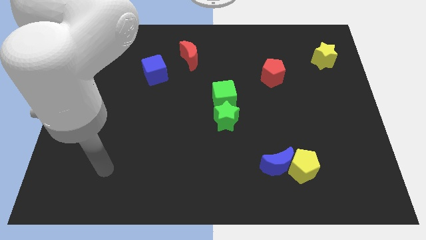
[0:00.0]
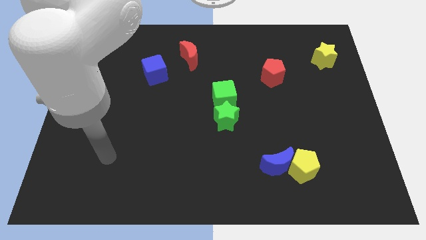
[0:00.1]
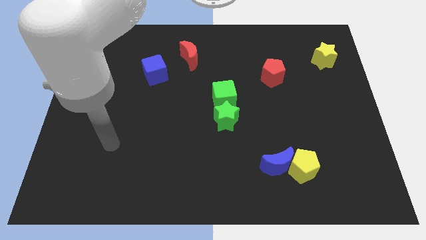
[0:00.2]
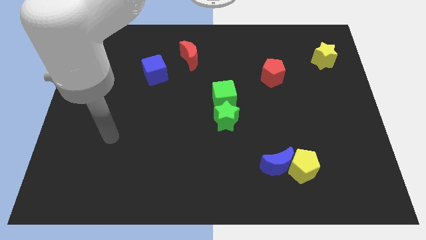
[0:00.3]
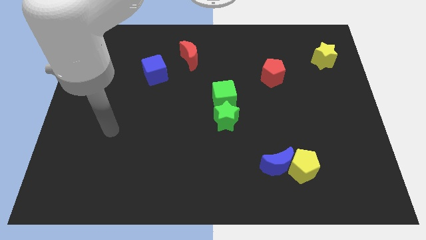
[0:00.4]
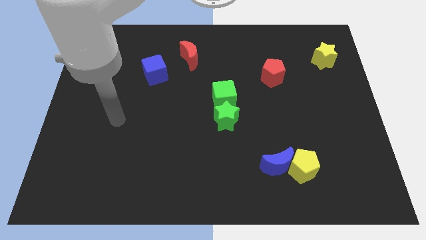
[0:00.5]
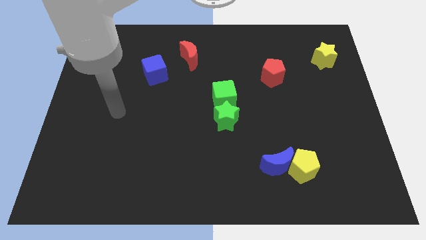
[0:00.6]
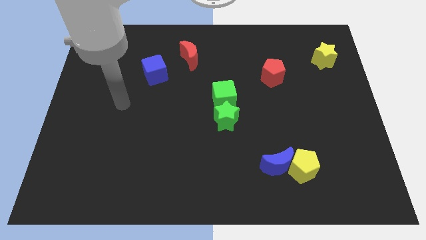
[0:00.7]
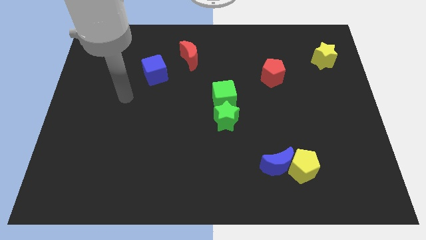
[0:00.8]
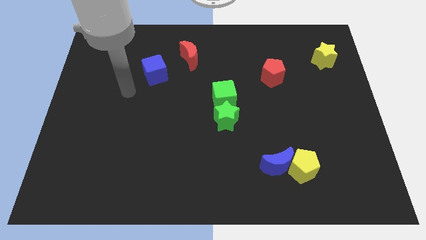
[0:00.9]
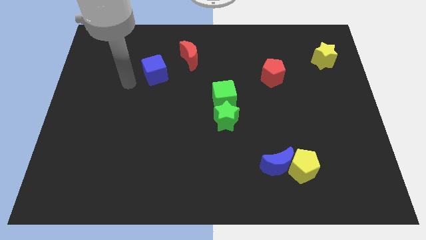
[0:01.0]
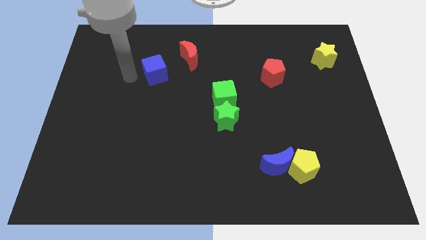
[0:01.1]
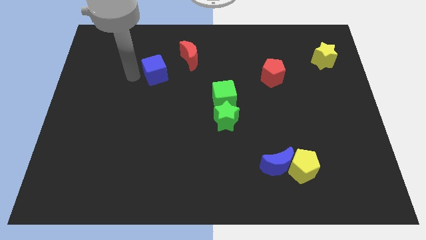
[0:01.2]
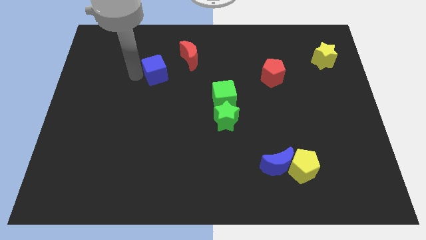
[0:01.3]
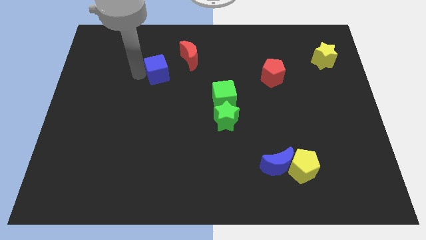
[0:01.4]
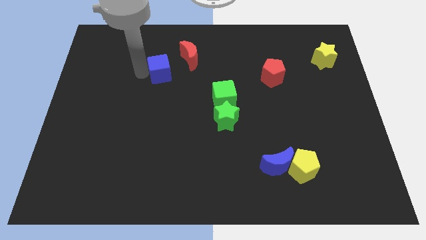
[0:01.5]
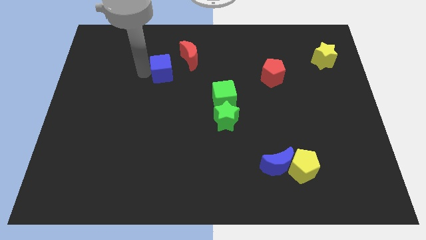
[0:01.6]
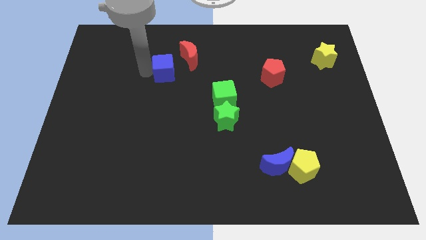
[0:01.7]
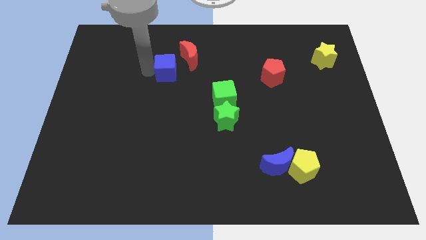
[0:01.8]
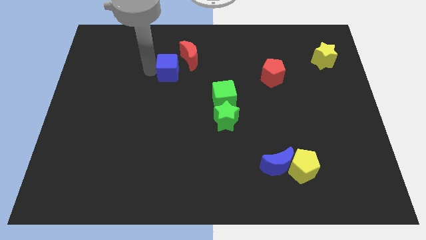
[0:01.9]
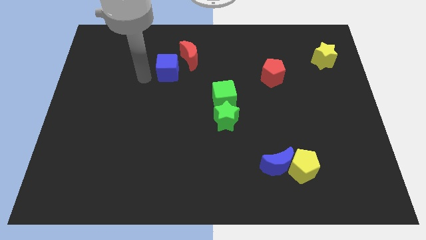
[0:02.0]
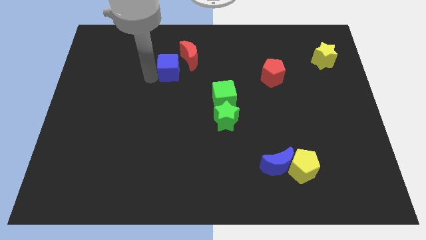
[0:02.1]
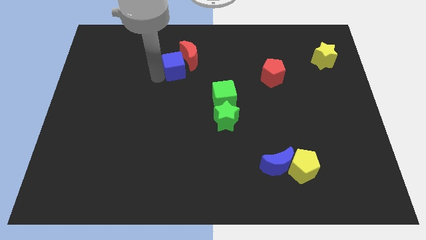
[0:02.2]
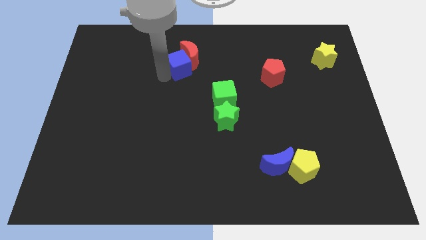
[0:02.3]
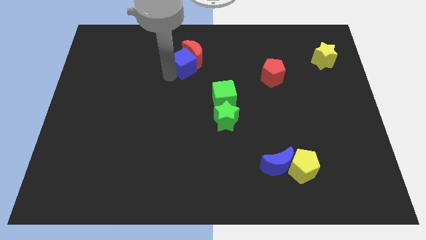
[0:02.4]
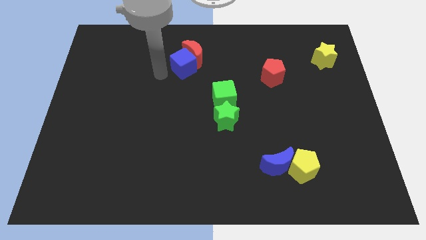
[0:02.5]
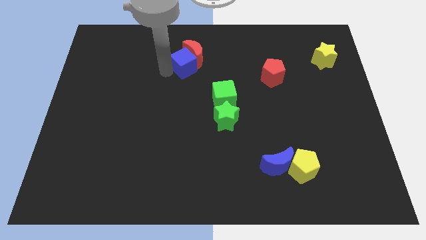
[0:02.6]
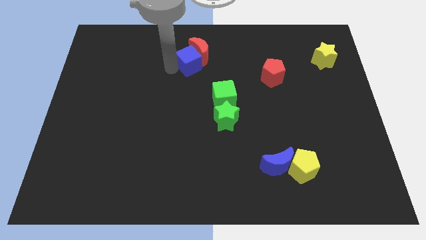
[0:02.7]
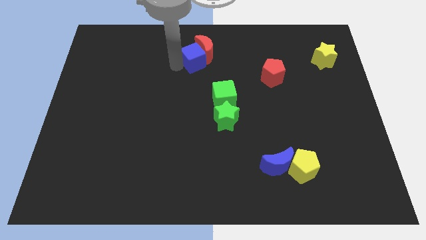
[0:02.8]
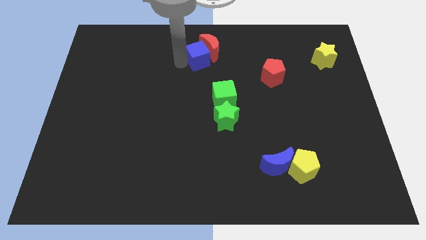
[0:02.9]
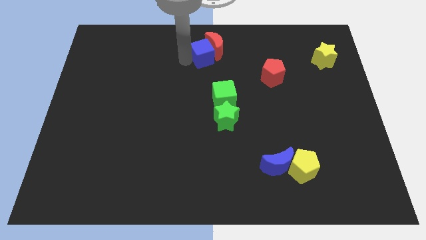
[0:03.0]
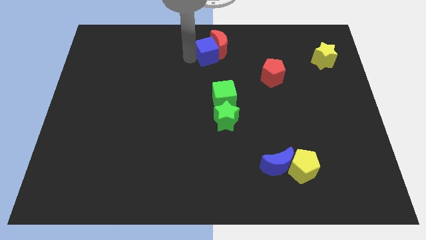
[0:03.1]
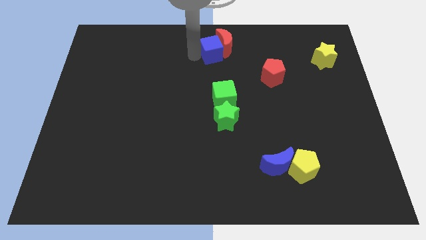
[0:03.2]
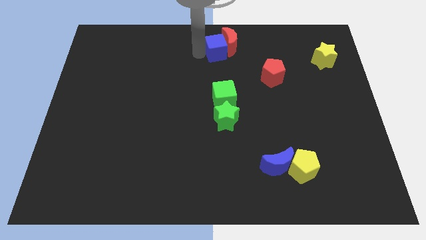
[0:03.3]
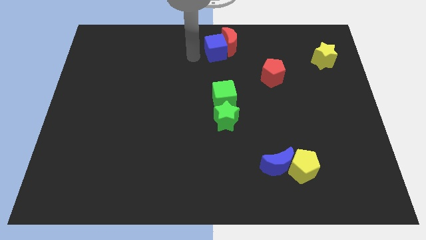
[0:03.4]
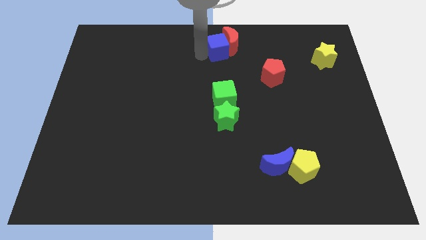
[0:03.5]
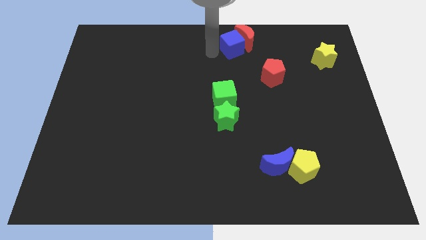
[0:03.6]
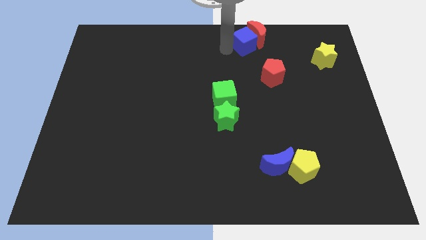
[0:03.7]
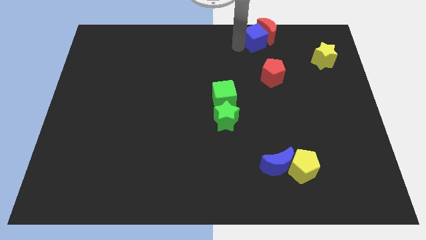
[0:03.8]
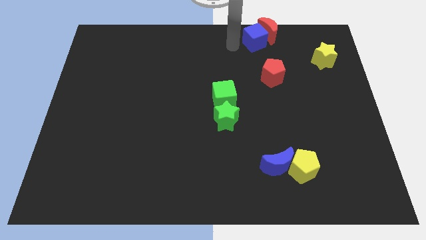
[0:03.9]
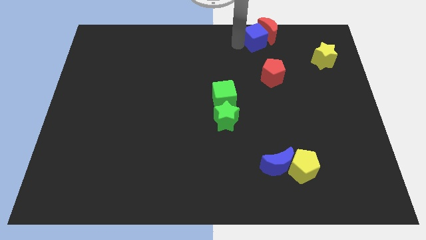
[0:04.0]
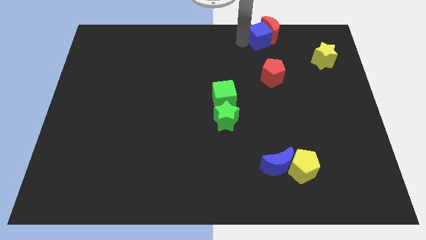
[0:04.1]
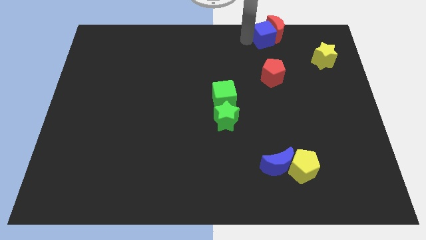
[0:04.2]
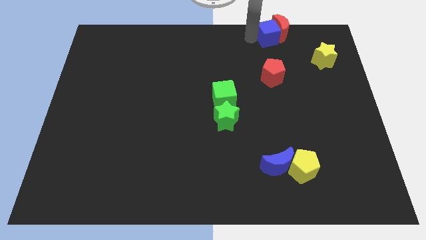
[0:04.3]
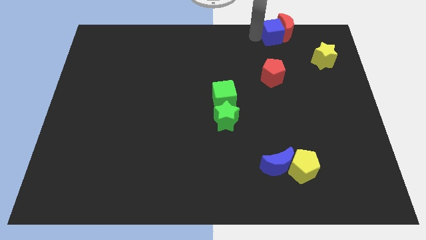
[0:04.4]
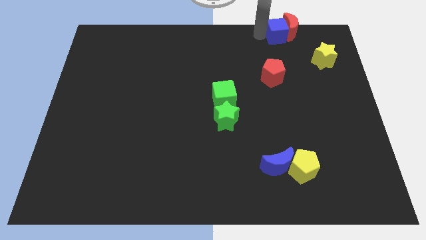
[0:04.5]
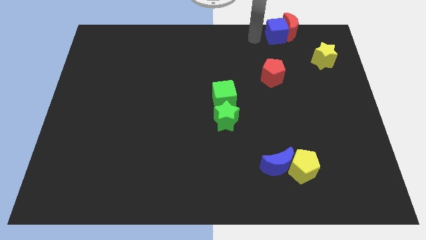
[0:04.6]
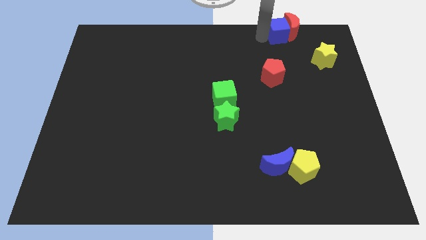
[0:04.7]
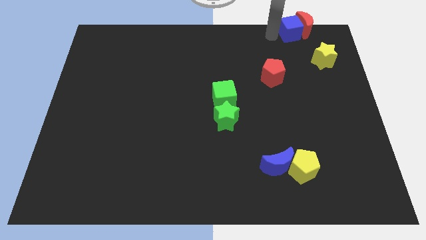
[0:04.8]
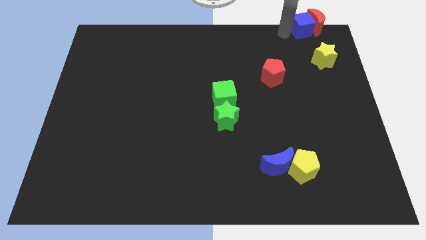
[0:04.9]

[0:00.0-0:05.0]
slide the blue cube to the top right

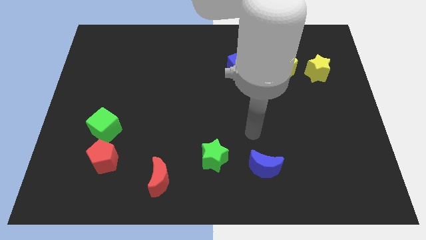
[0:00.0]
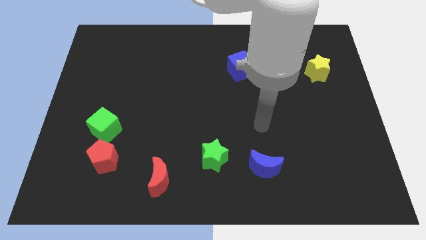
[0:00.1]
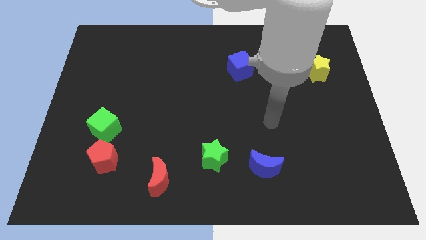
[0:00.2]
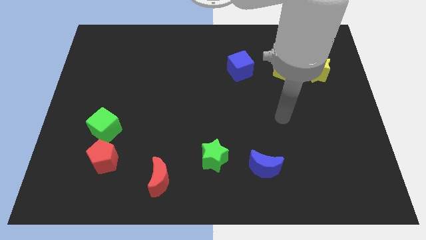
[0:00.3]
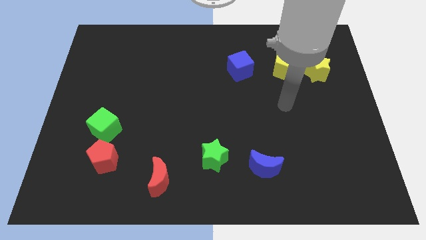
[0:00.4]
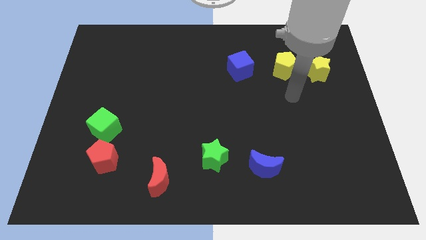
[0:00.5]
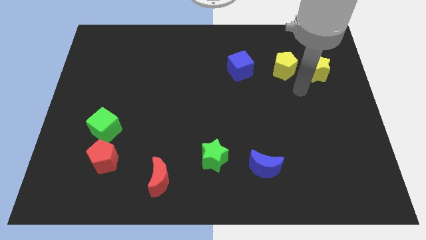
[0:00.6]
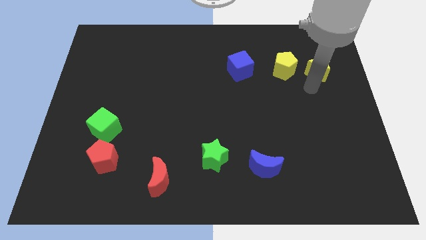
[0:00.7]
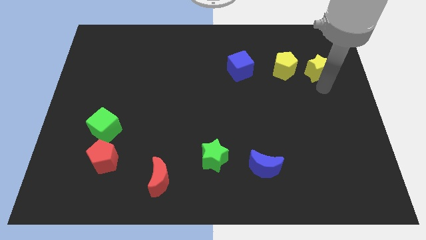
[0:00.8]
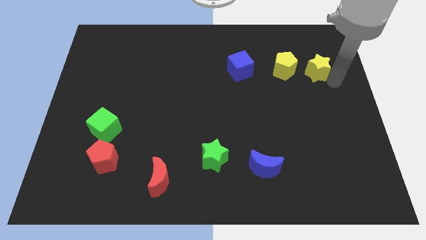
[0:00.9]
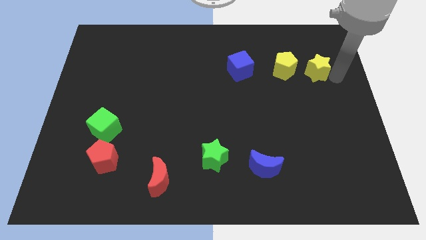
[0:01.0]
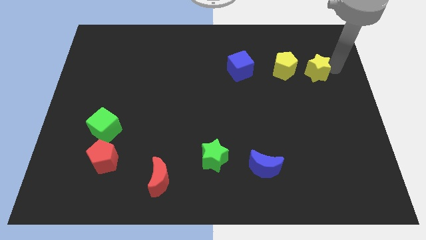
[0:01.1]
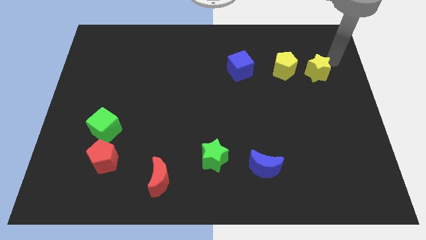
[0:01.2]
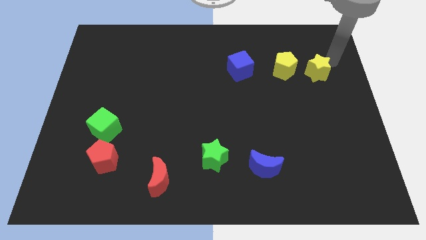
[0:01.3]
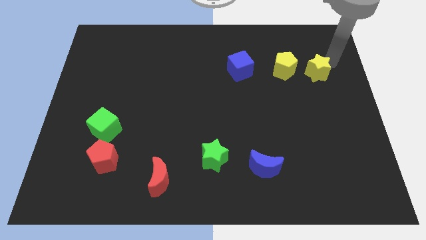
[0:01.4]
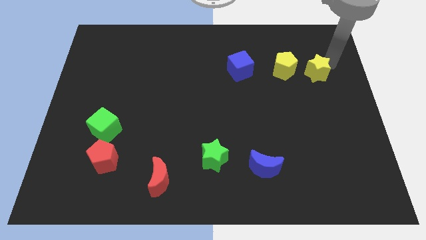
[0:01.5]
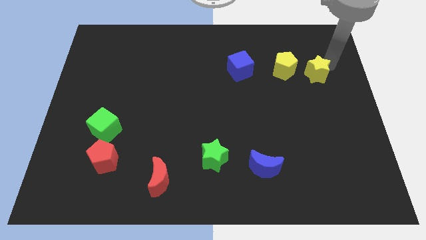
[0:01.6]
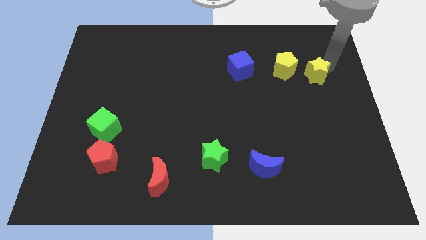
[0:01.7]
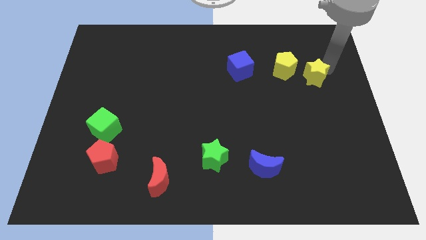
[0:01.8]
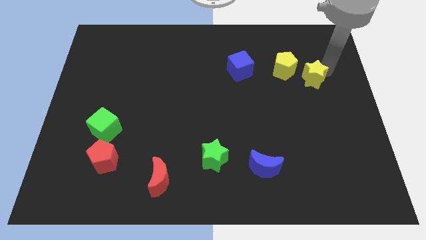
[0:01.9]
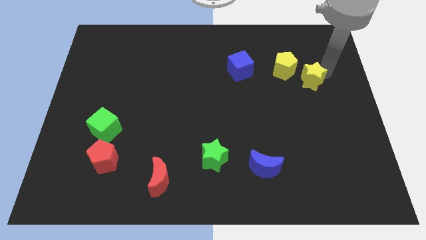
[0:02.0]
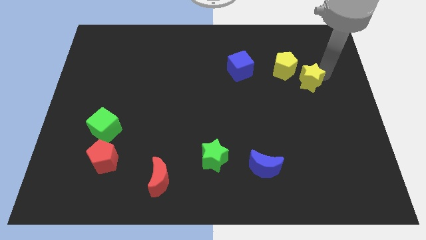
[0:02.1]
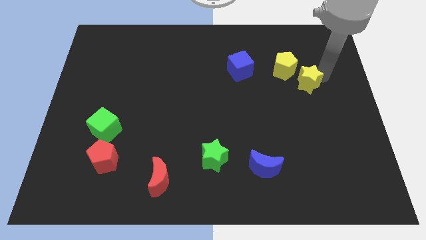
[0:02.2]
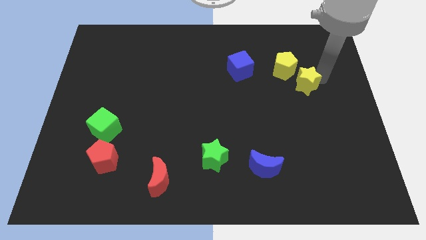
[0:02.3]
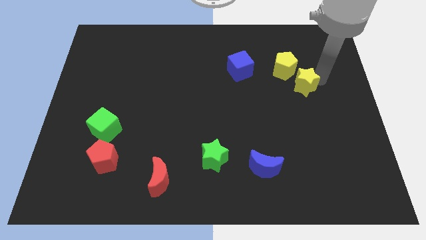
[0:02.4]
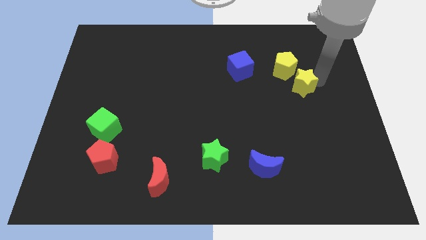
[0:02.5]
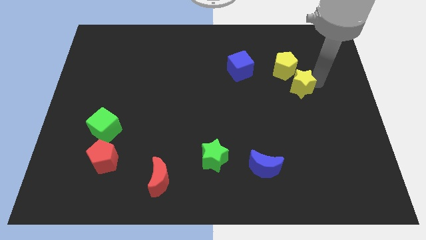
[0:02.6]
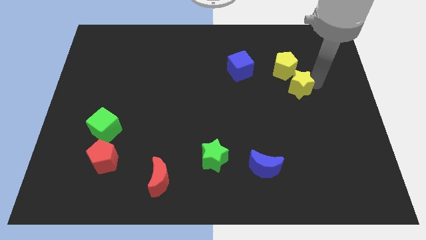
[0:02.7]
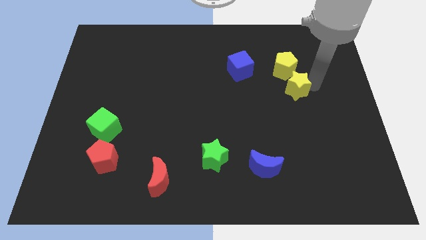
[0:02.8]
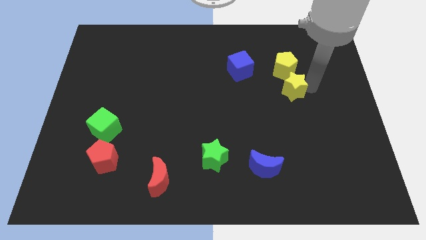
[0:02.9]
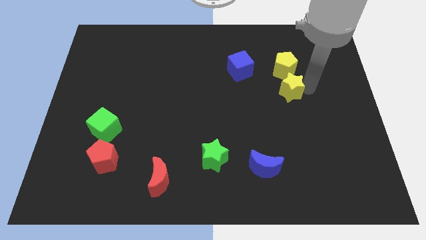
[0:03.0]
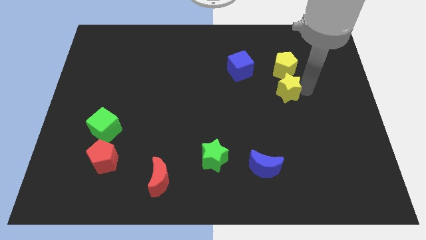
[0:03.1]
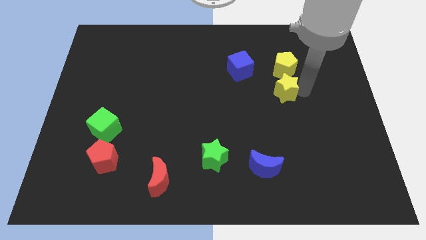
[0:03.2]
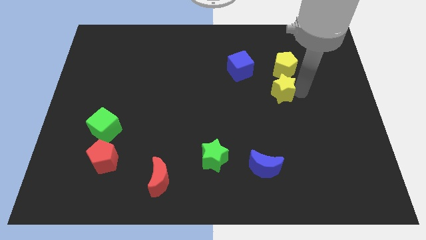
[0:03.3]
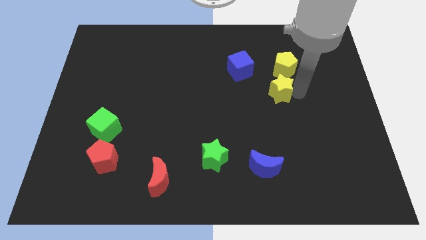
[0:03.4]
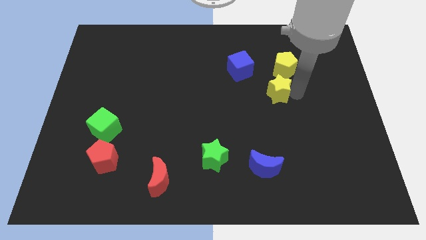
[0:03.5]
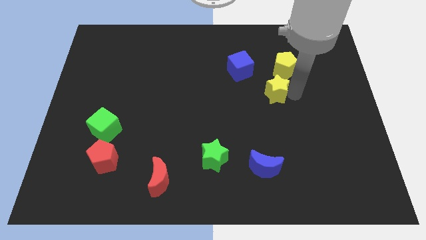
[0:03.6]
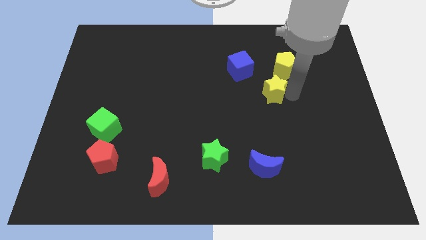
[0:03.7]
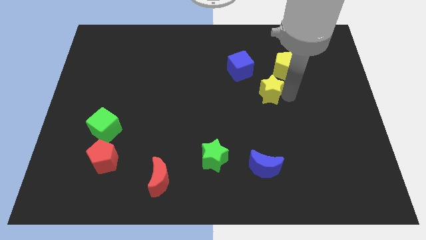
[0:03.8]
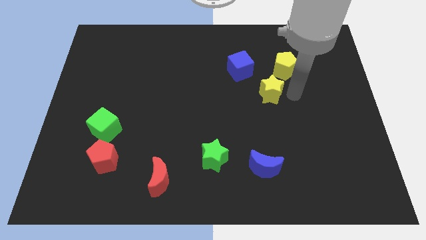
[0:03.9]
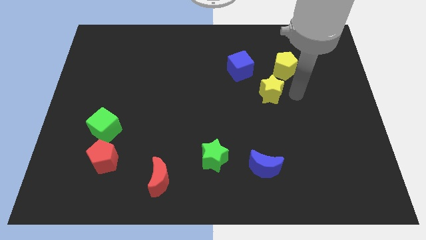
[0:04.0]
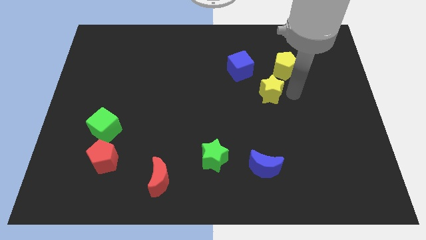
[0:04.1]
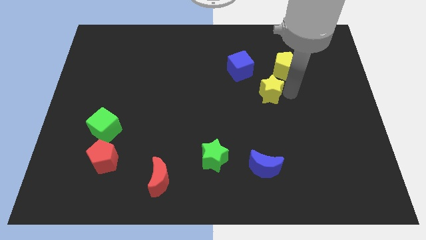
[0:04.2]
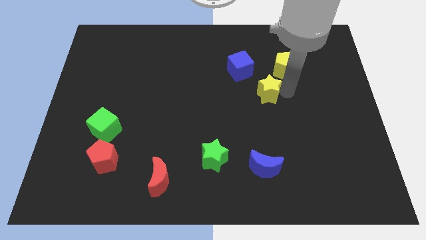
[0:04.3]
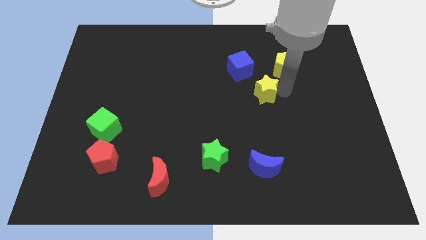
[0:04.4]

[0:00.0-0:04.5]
slide the yellow star to the center of the board
